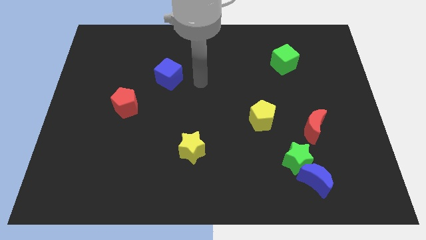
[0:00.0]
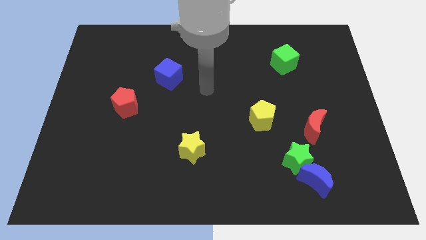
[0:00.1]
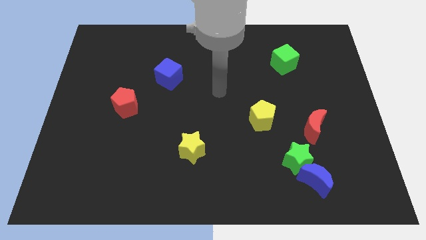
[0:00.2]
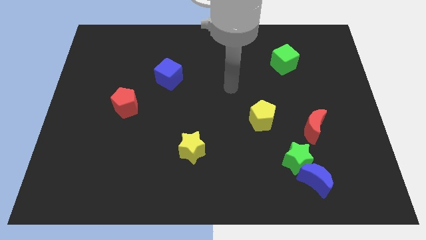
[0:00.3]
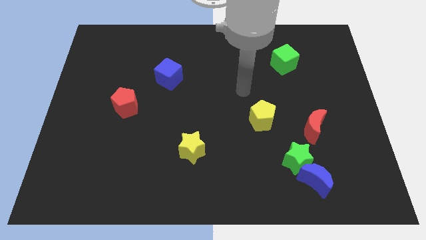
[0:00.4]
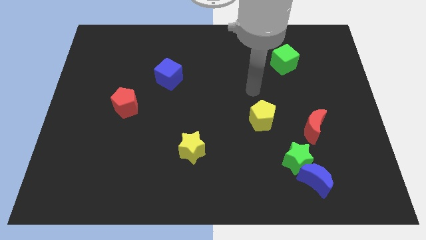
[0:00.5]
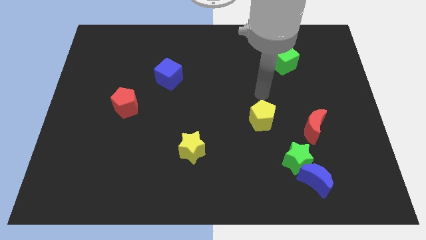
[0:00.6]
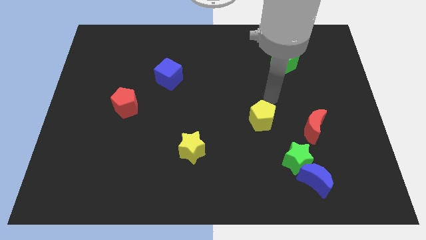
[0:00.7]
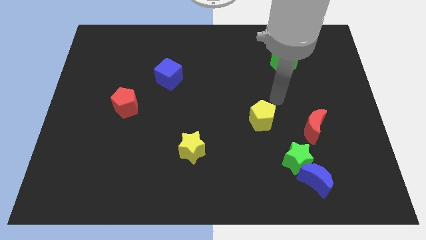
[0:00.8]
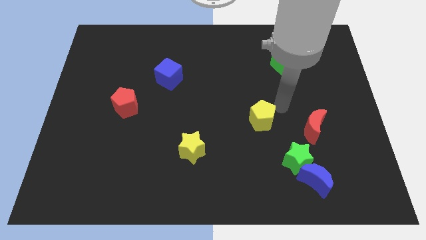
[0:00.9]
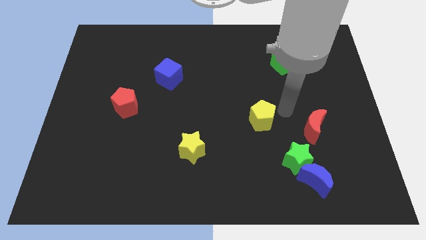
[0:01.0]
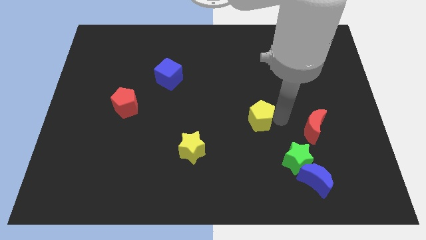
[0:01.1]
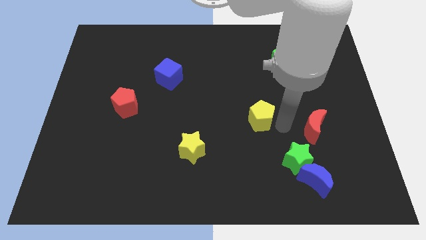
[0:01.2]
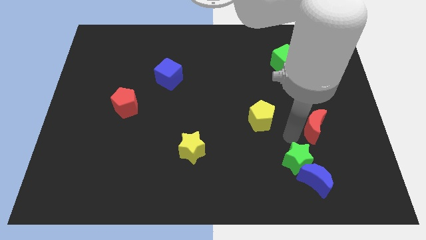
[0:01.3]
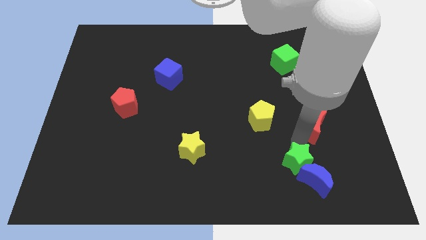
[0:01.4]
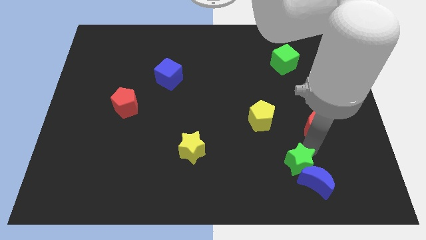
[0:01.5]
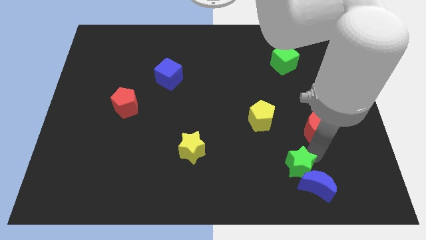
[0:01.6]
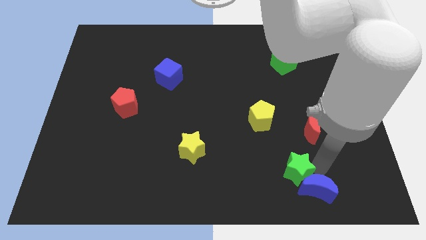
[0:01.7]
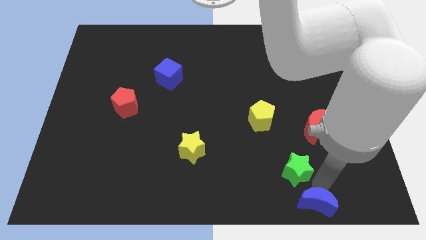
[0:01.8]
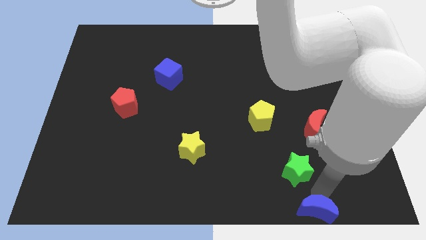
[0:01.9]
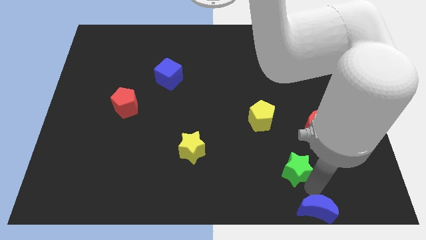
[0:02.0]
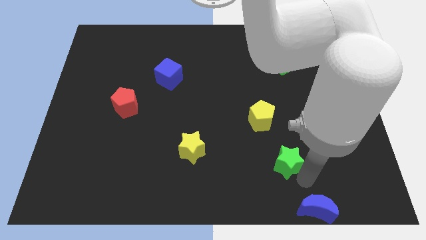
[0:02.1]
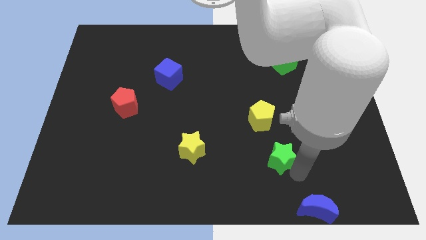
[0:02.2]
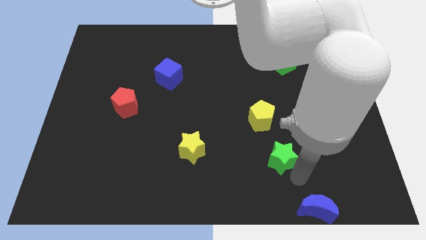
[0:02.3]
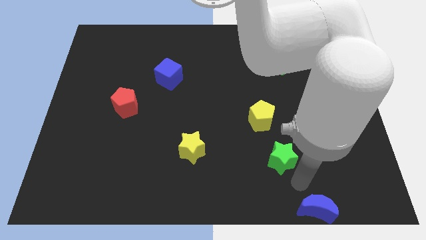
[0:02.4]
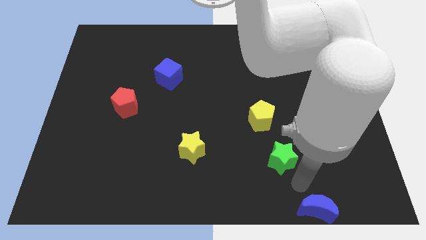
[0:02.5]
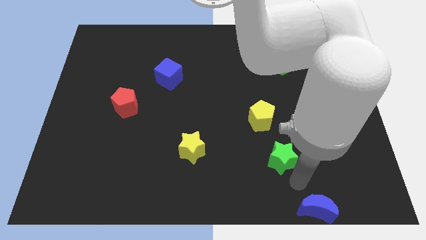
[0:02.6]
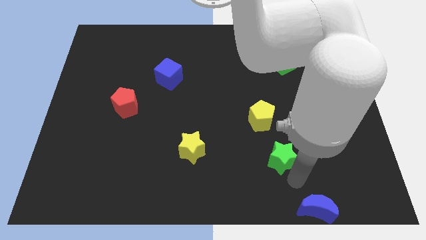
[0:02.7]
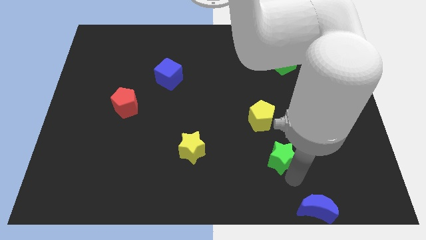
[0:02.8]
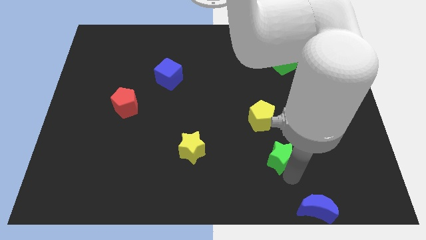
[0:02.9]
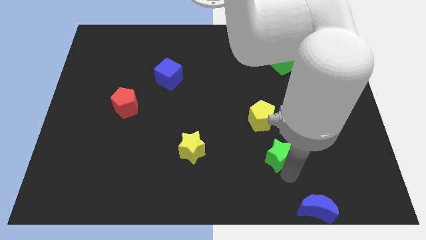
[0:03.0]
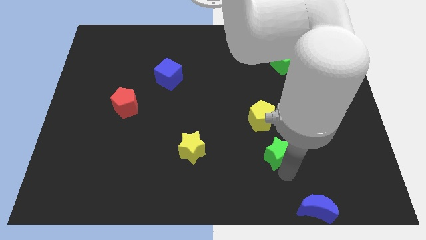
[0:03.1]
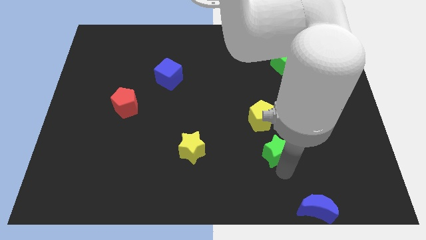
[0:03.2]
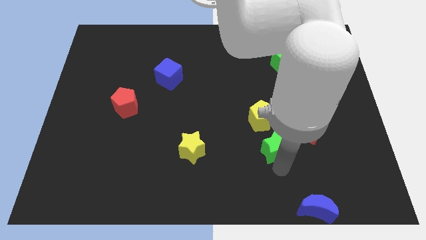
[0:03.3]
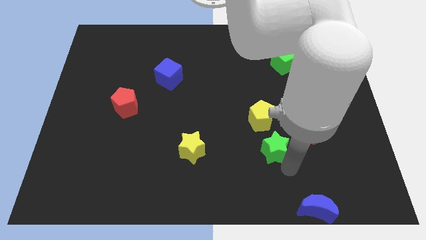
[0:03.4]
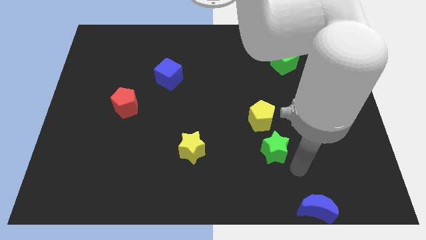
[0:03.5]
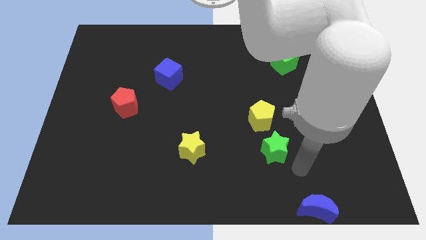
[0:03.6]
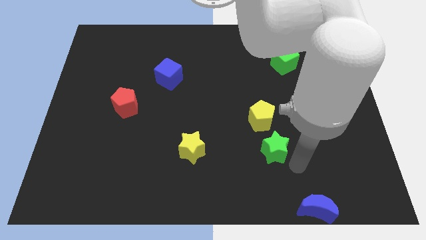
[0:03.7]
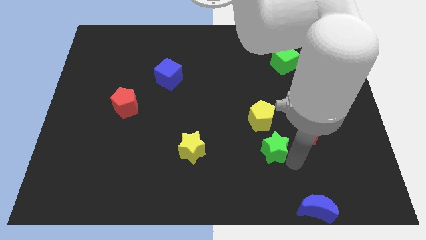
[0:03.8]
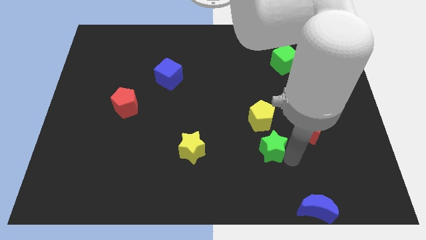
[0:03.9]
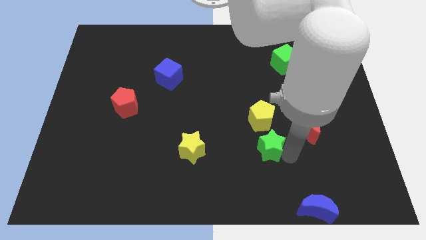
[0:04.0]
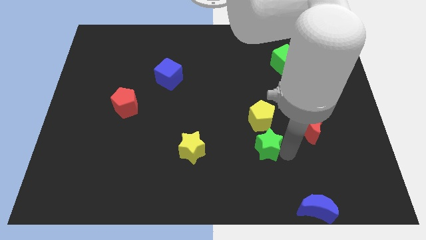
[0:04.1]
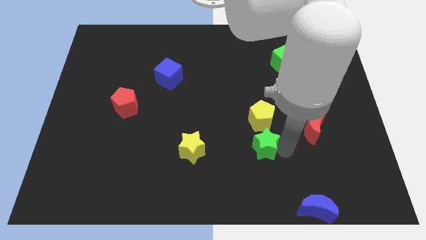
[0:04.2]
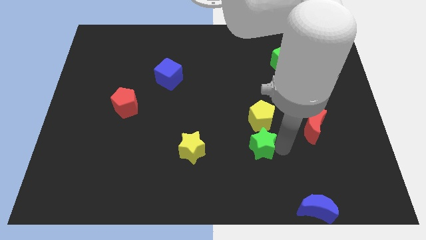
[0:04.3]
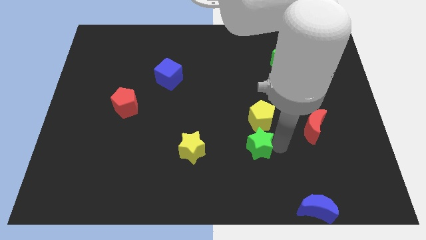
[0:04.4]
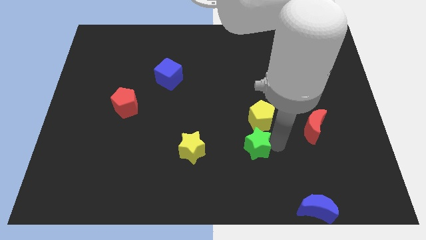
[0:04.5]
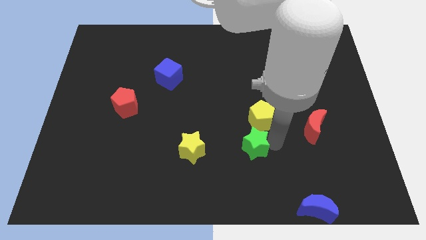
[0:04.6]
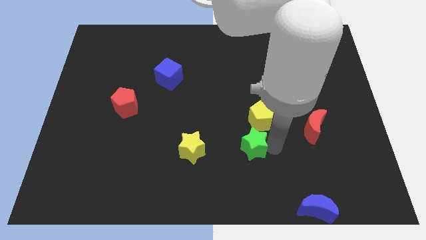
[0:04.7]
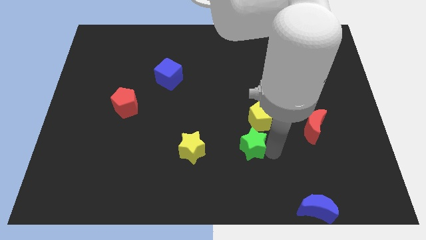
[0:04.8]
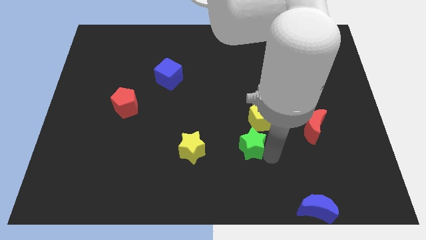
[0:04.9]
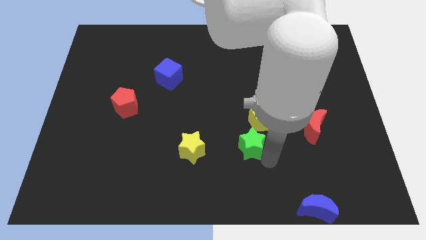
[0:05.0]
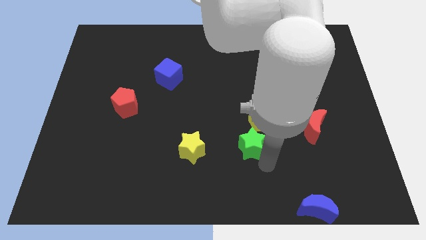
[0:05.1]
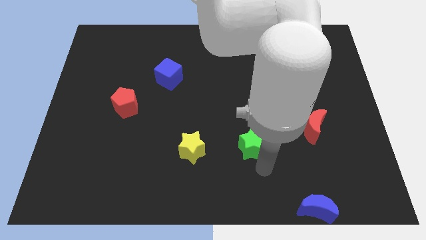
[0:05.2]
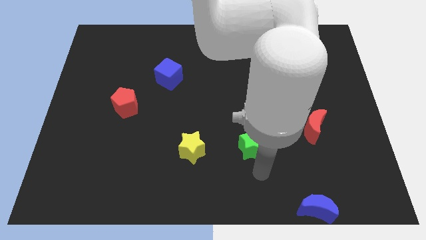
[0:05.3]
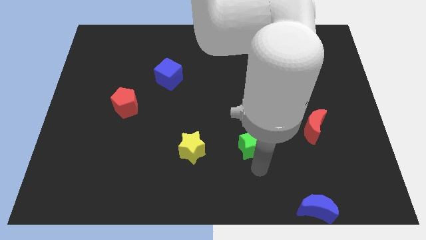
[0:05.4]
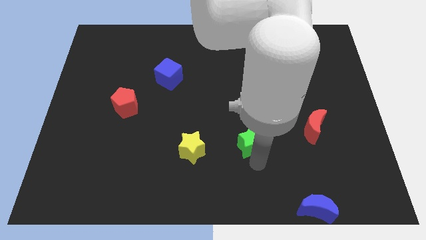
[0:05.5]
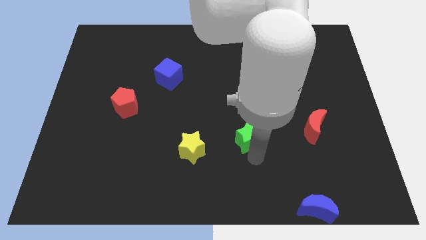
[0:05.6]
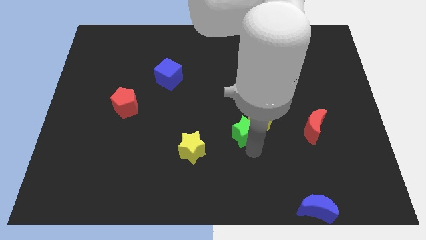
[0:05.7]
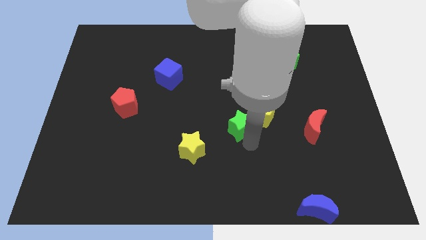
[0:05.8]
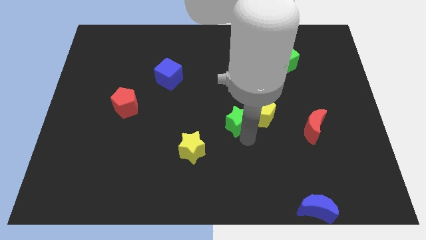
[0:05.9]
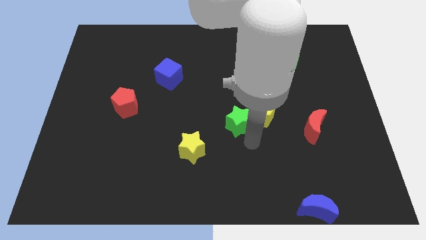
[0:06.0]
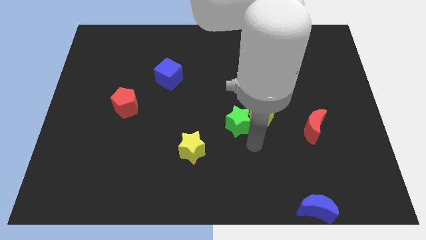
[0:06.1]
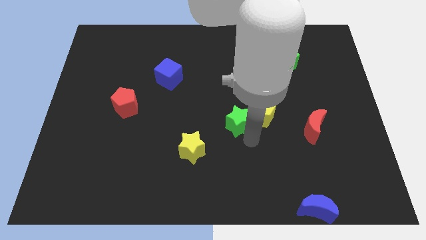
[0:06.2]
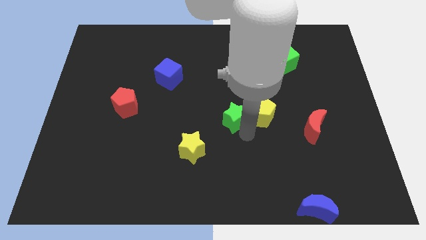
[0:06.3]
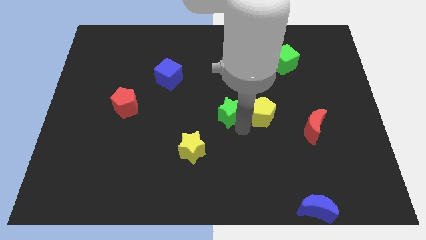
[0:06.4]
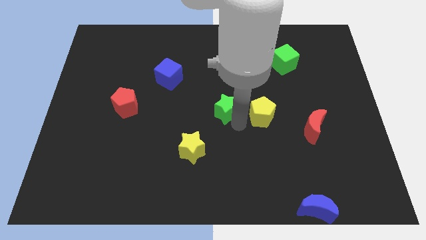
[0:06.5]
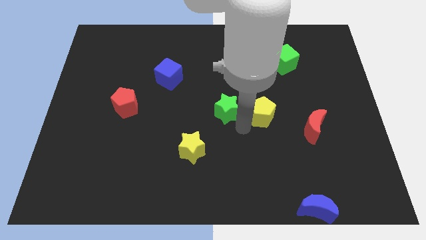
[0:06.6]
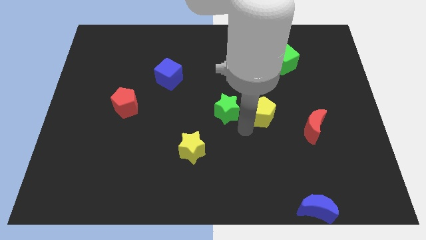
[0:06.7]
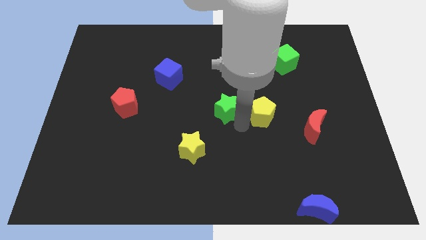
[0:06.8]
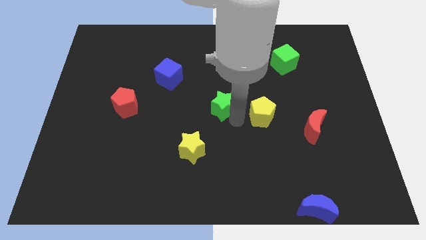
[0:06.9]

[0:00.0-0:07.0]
move the green star up and left diagonally

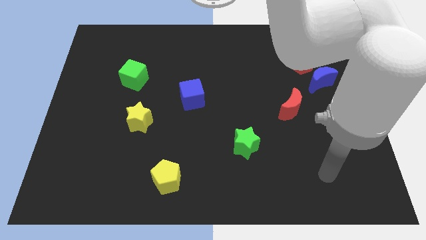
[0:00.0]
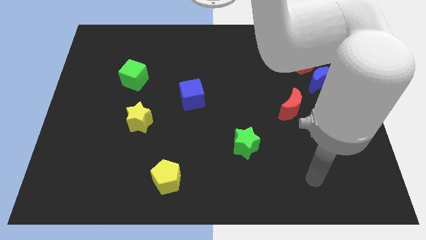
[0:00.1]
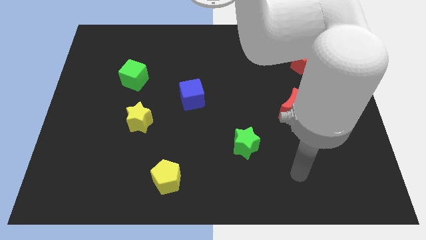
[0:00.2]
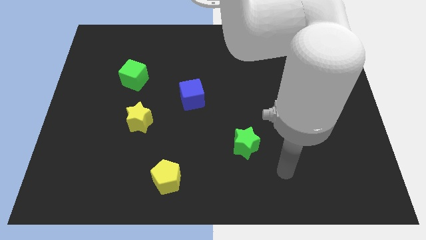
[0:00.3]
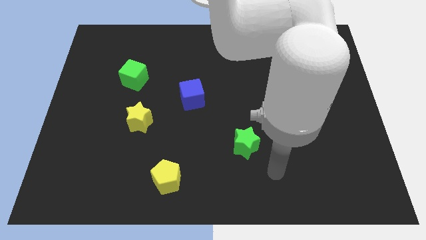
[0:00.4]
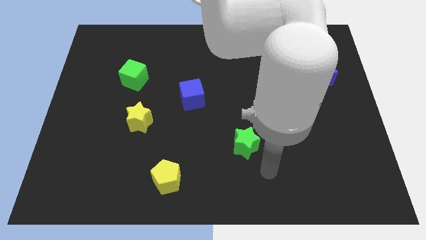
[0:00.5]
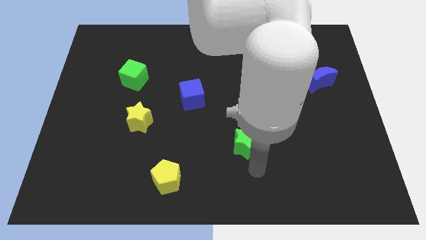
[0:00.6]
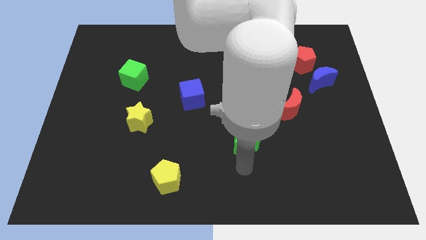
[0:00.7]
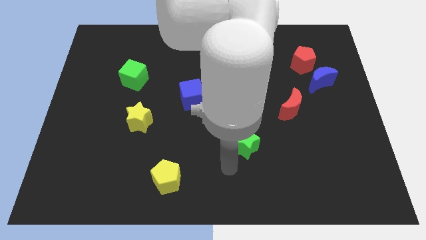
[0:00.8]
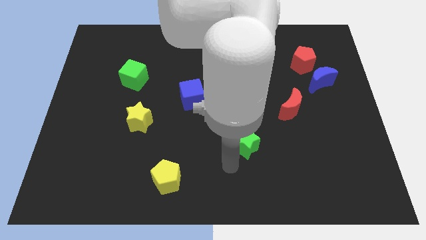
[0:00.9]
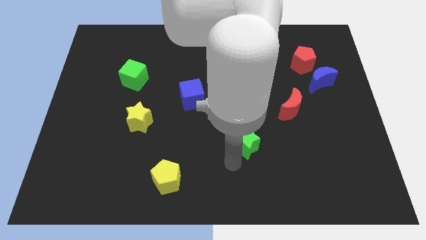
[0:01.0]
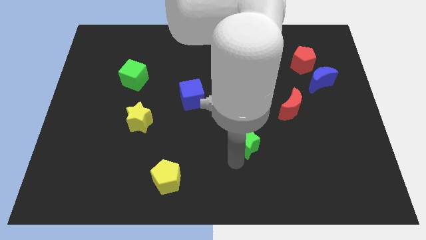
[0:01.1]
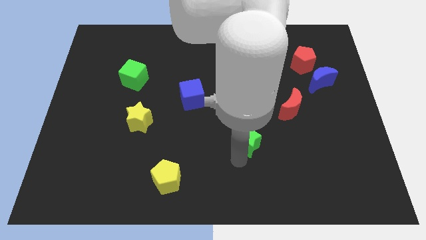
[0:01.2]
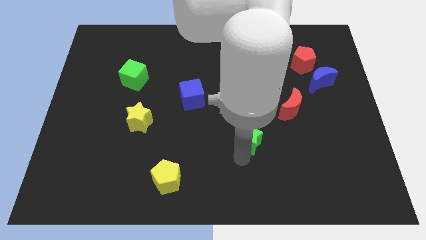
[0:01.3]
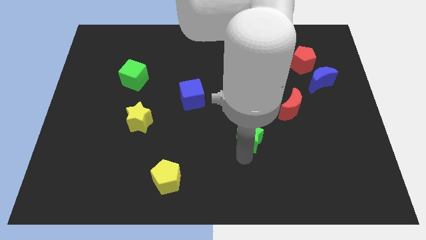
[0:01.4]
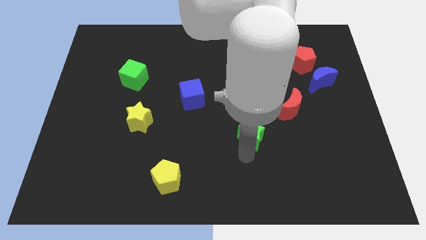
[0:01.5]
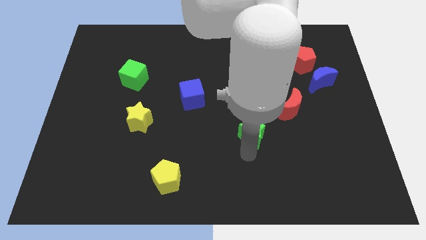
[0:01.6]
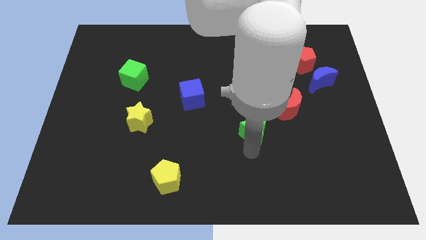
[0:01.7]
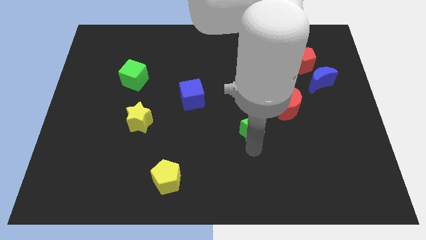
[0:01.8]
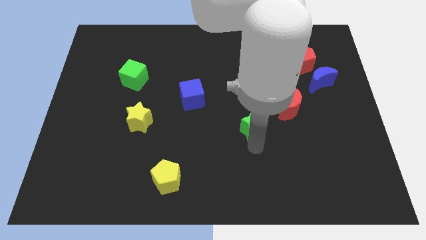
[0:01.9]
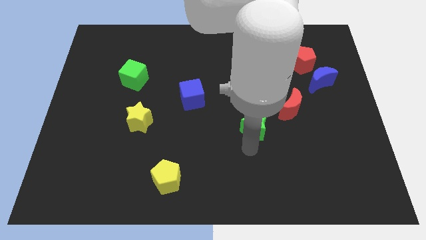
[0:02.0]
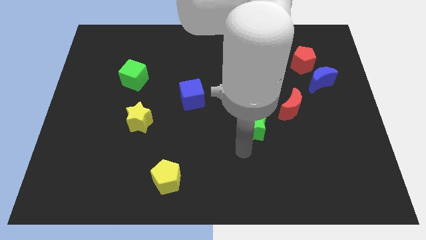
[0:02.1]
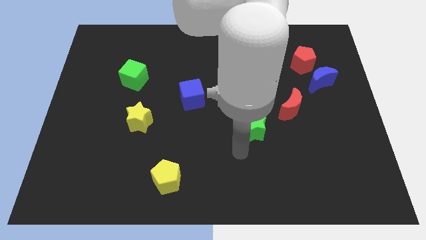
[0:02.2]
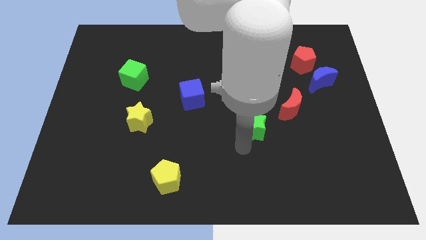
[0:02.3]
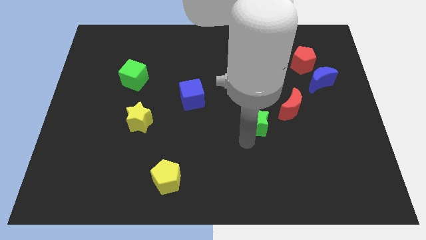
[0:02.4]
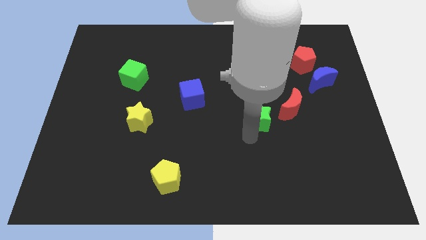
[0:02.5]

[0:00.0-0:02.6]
move the green star up and to the right diagonally a little bit
